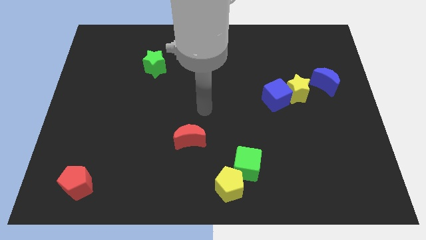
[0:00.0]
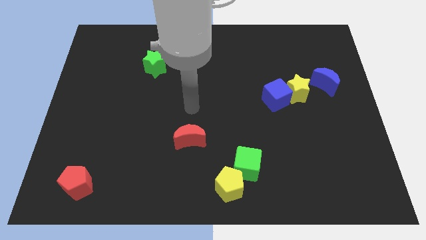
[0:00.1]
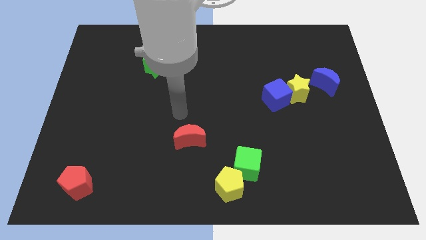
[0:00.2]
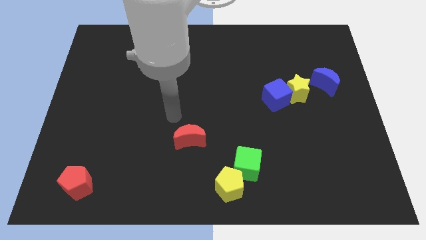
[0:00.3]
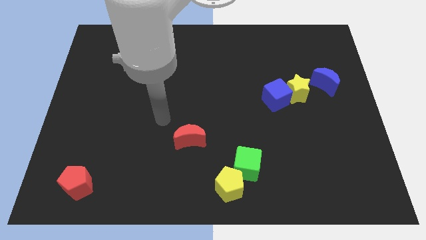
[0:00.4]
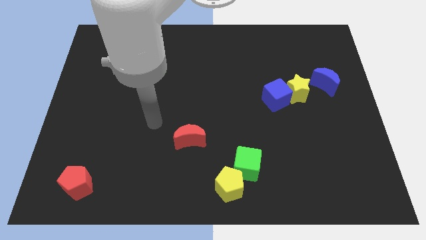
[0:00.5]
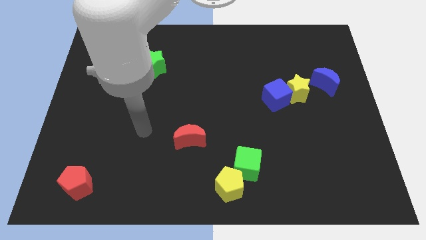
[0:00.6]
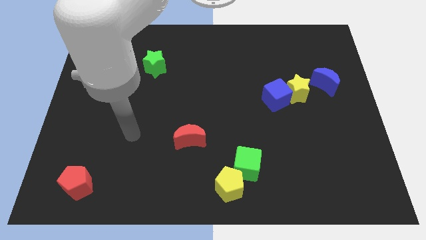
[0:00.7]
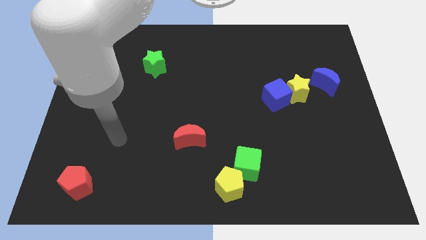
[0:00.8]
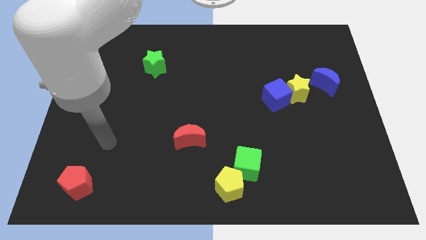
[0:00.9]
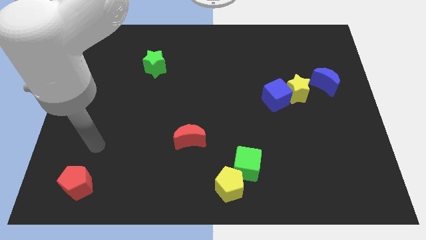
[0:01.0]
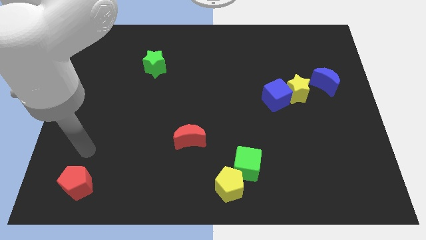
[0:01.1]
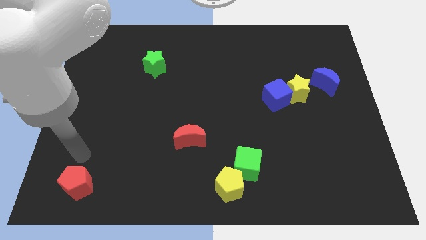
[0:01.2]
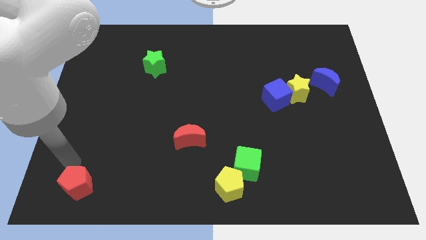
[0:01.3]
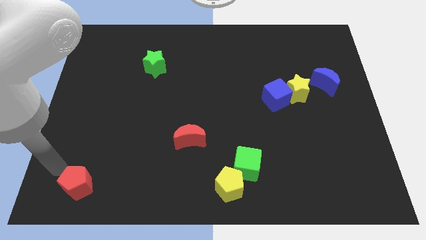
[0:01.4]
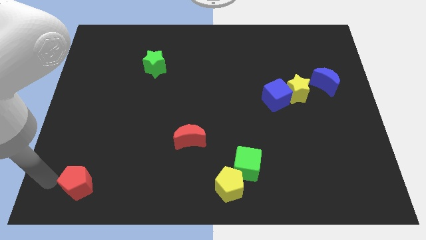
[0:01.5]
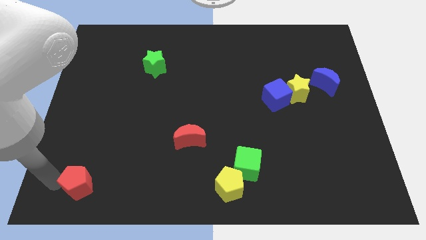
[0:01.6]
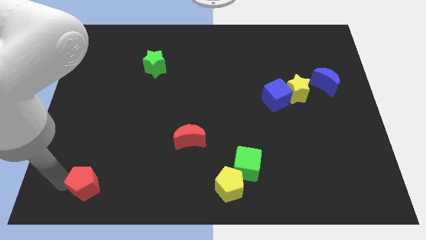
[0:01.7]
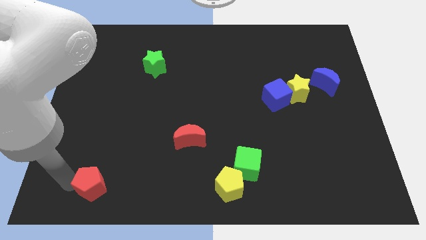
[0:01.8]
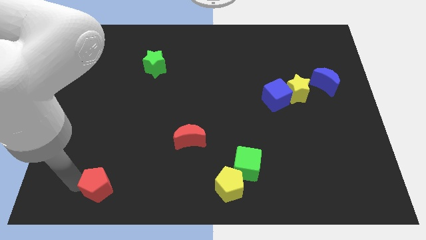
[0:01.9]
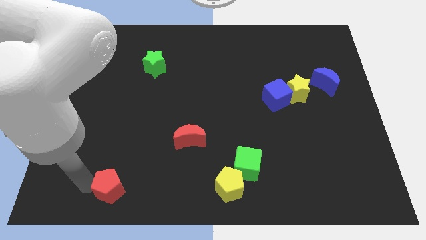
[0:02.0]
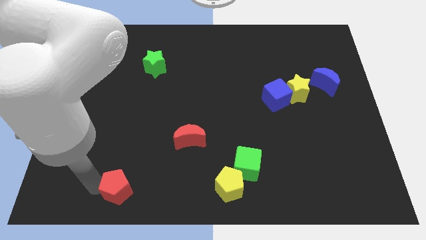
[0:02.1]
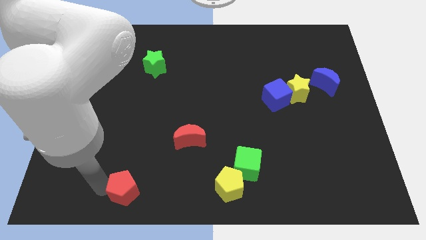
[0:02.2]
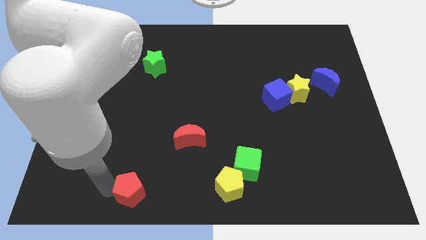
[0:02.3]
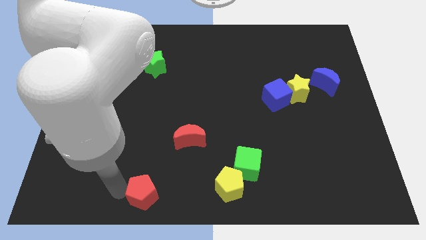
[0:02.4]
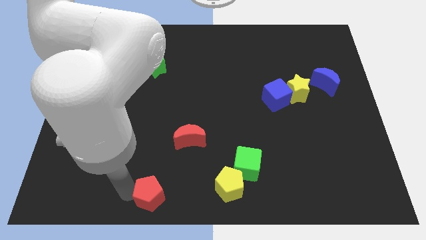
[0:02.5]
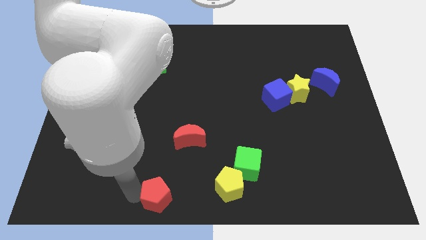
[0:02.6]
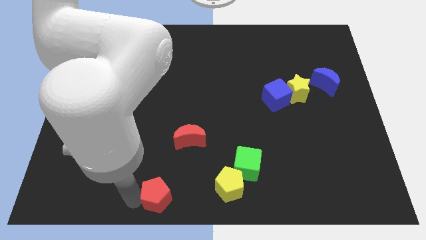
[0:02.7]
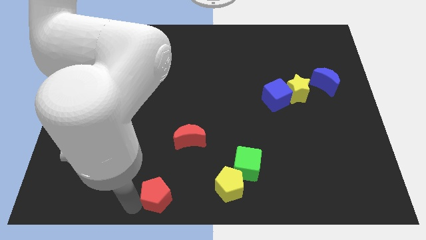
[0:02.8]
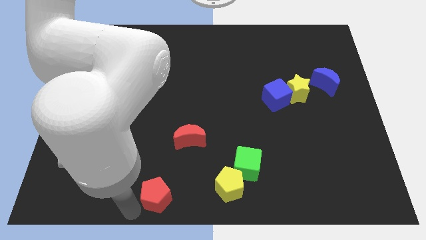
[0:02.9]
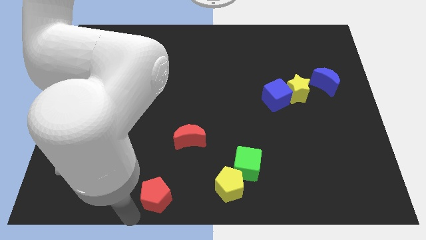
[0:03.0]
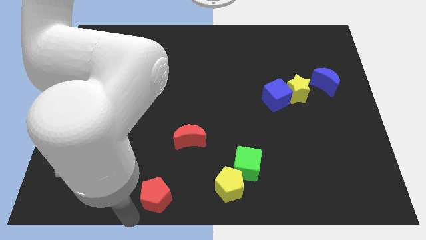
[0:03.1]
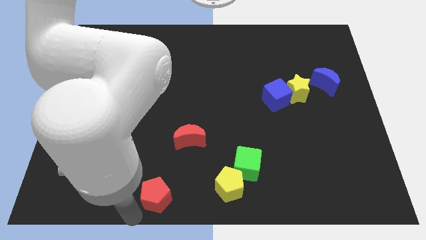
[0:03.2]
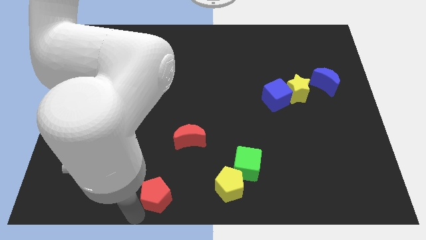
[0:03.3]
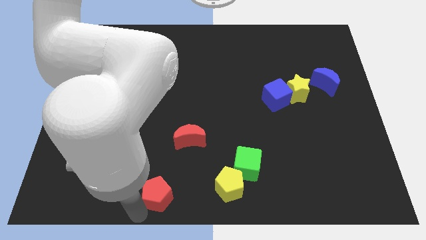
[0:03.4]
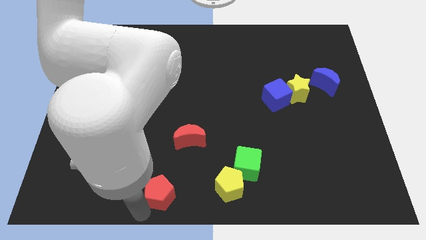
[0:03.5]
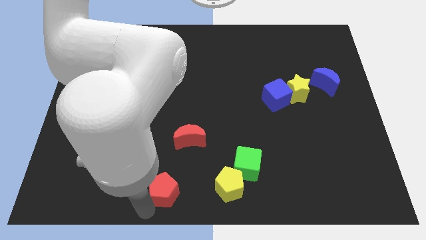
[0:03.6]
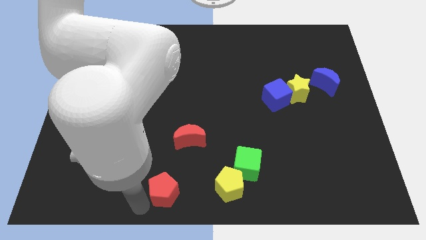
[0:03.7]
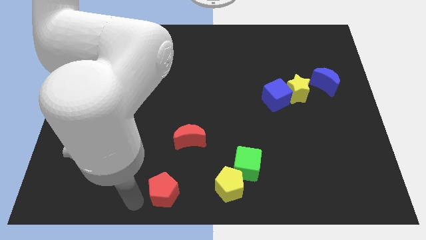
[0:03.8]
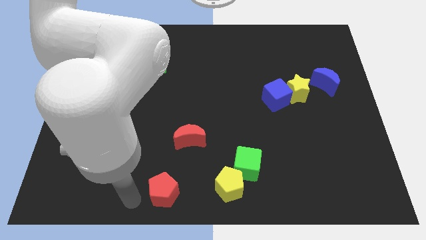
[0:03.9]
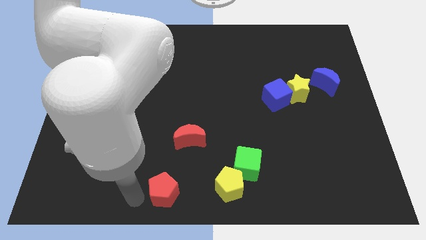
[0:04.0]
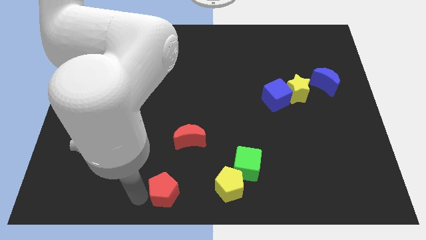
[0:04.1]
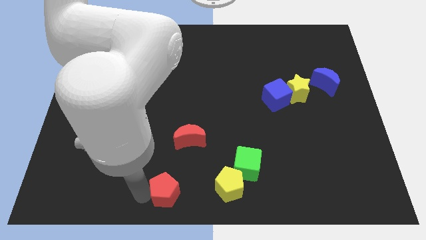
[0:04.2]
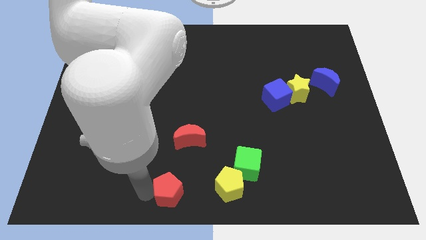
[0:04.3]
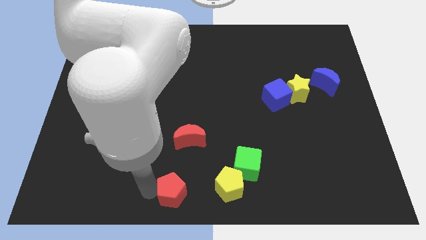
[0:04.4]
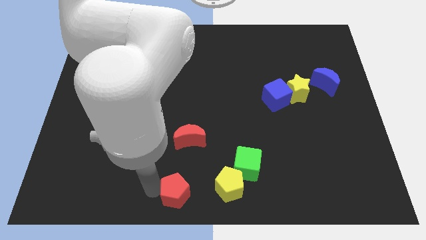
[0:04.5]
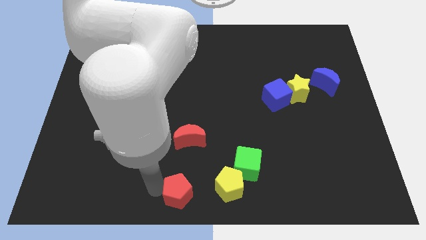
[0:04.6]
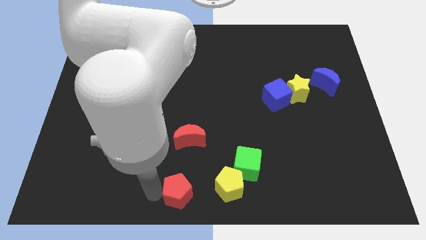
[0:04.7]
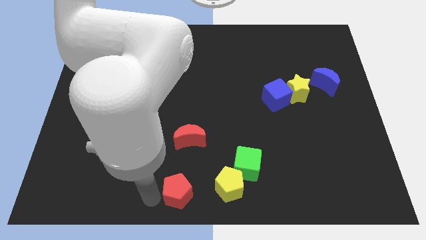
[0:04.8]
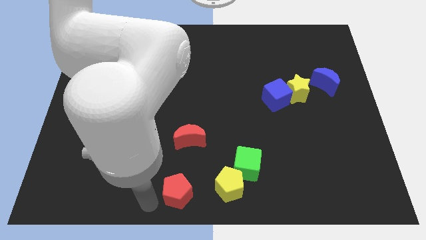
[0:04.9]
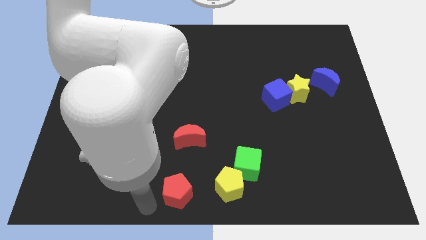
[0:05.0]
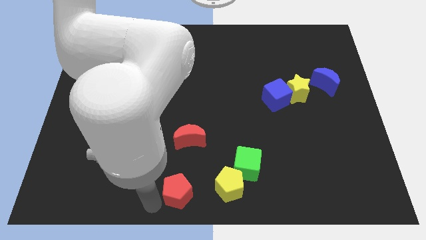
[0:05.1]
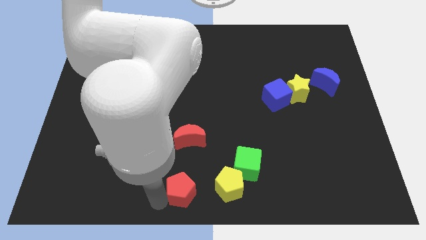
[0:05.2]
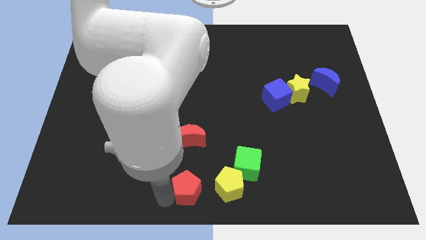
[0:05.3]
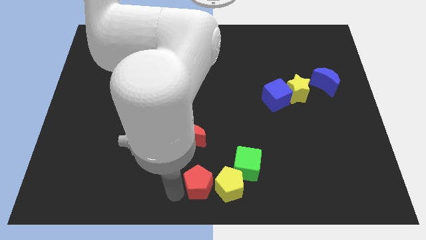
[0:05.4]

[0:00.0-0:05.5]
put the red pentagon next to the yellow pentagon

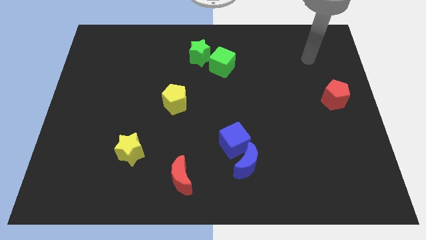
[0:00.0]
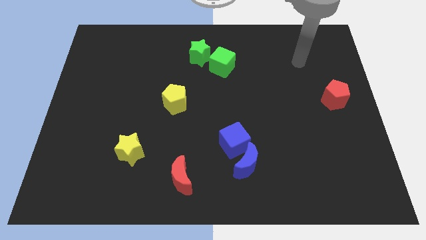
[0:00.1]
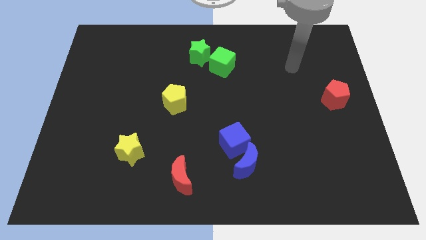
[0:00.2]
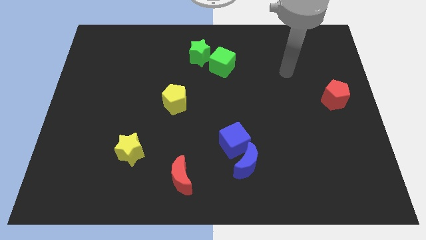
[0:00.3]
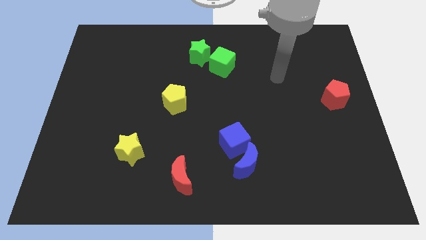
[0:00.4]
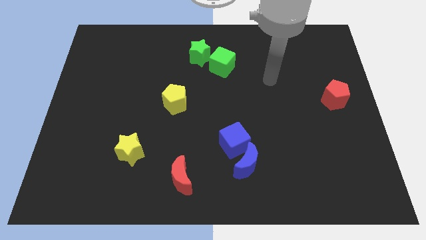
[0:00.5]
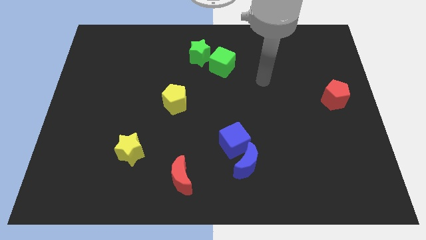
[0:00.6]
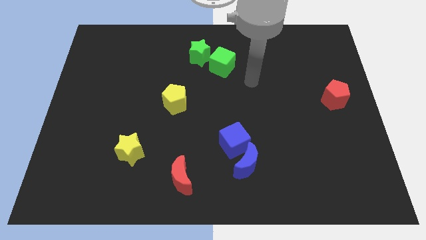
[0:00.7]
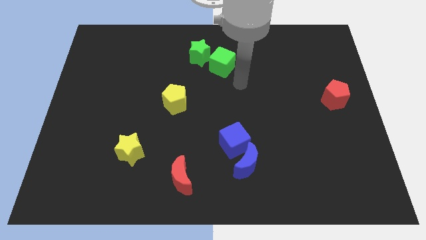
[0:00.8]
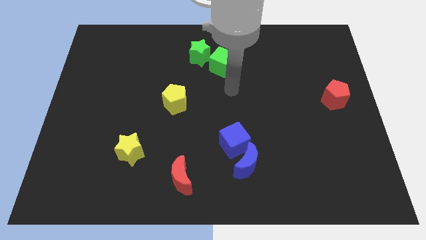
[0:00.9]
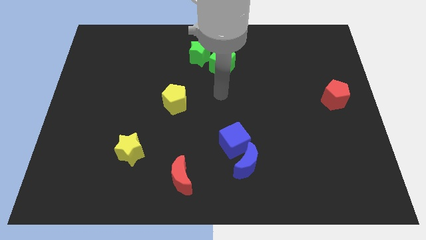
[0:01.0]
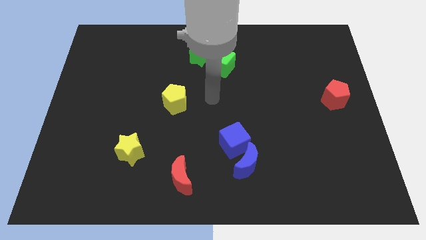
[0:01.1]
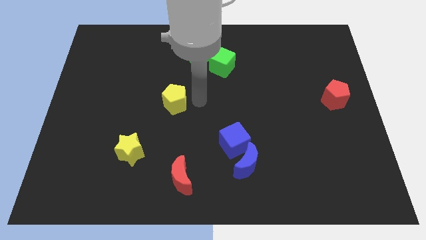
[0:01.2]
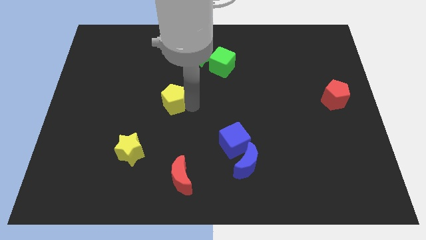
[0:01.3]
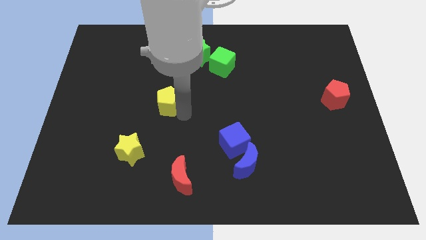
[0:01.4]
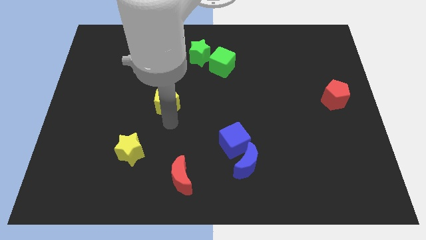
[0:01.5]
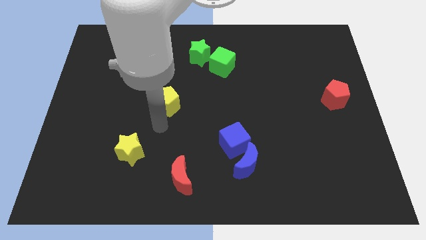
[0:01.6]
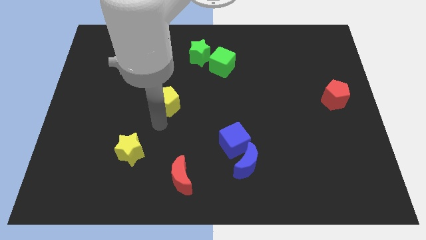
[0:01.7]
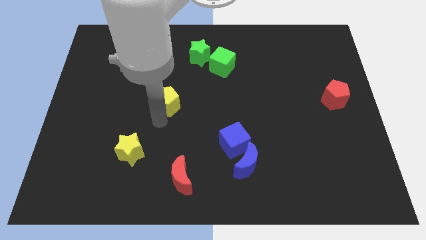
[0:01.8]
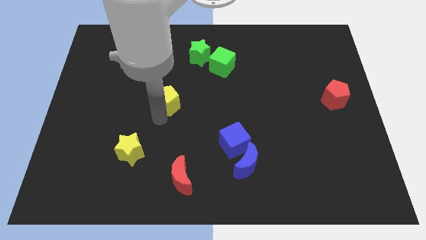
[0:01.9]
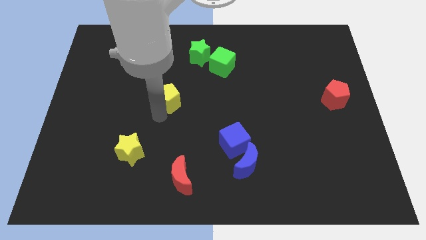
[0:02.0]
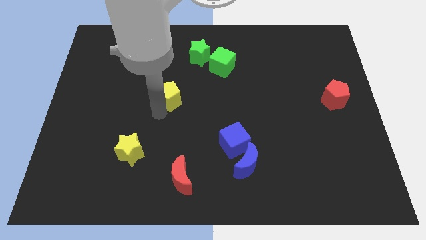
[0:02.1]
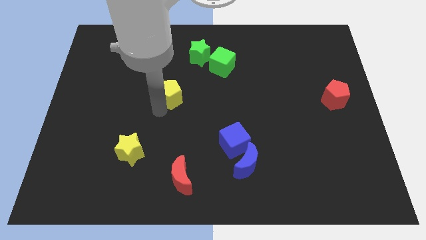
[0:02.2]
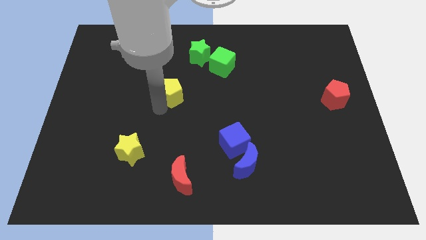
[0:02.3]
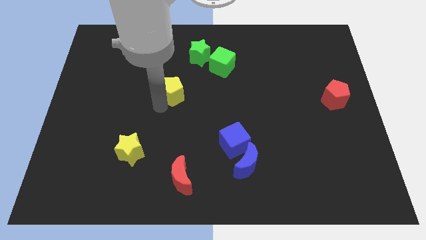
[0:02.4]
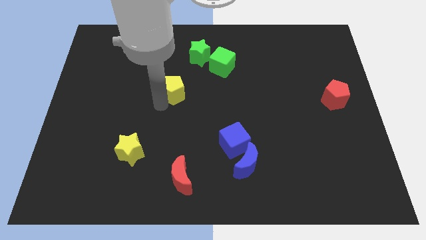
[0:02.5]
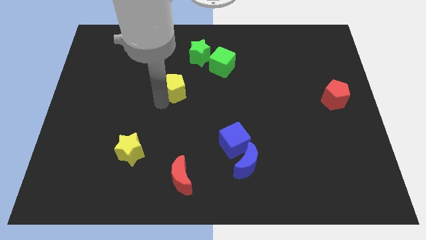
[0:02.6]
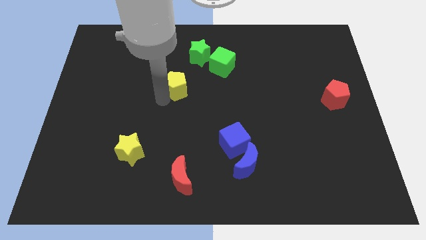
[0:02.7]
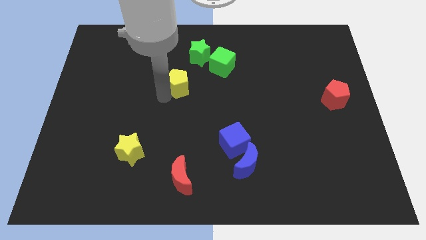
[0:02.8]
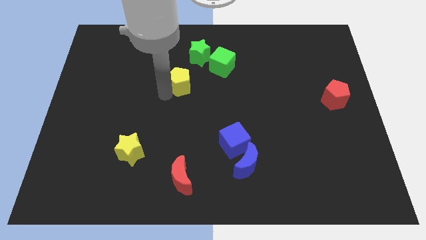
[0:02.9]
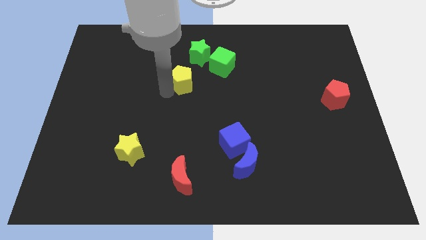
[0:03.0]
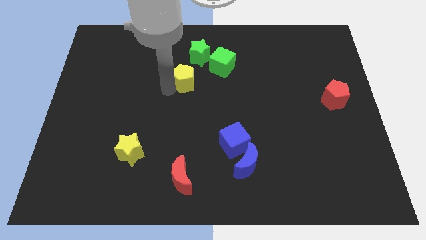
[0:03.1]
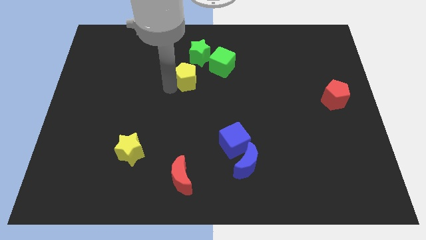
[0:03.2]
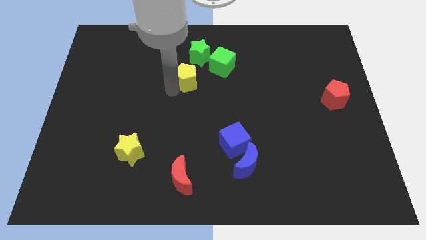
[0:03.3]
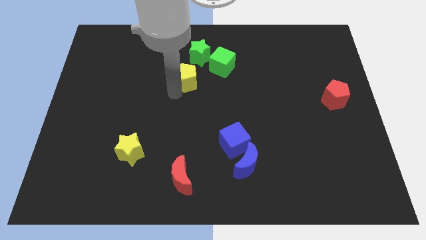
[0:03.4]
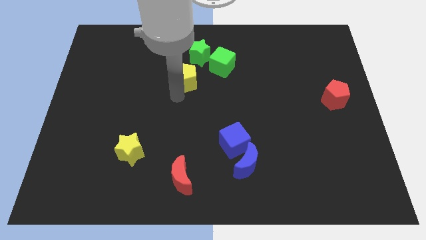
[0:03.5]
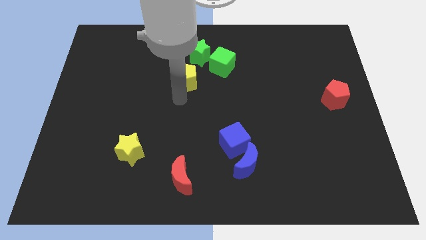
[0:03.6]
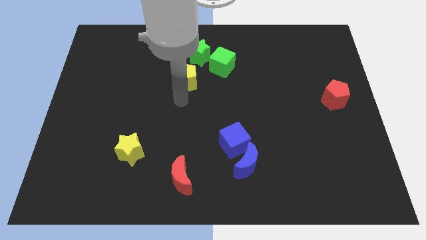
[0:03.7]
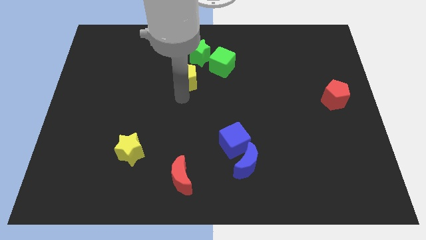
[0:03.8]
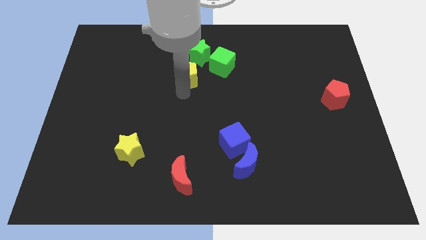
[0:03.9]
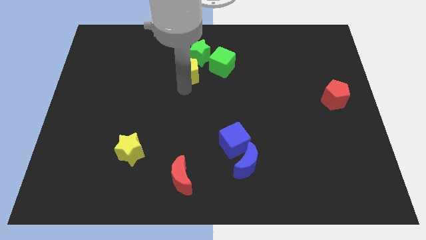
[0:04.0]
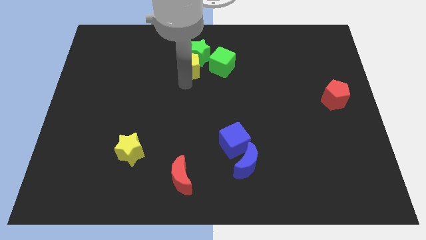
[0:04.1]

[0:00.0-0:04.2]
move the yellow pentagon to the green star
